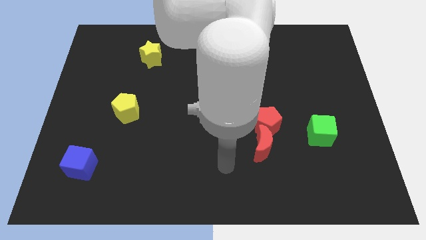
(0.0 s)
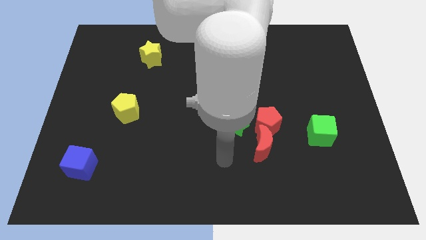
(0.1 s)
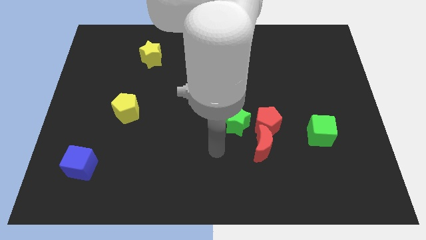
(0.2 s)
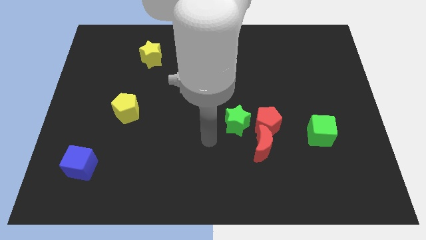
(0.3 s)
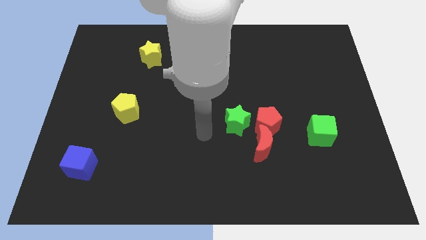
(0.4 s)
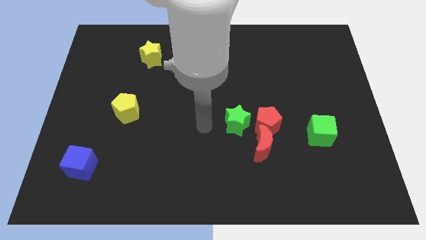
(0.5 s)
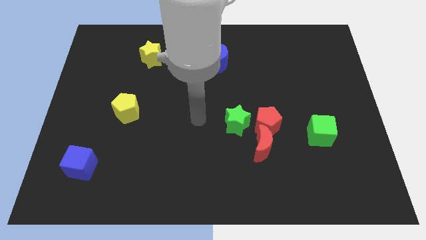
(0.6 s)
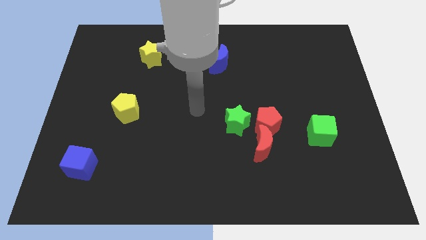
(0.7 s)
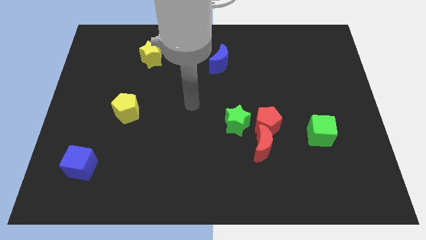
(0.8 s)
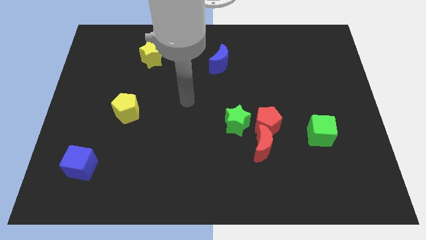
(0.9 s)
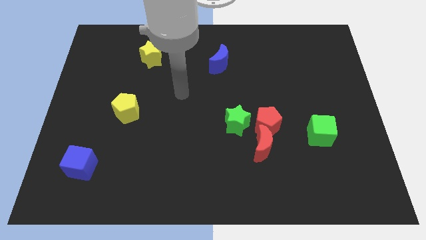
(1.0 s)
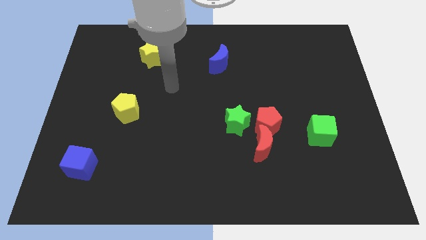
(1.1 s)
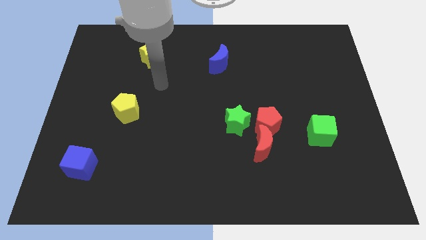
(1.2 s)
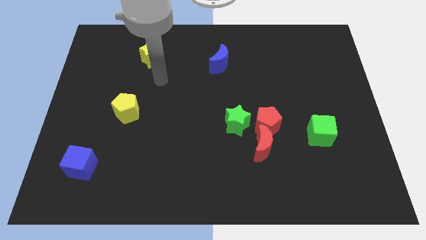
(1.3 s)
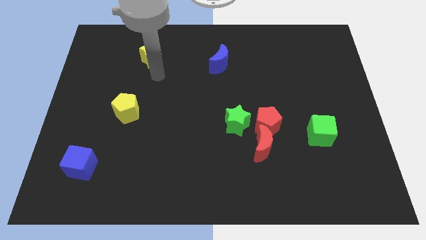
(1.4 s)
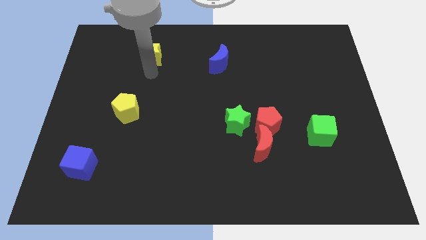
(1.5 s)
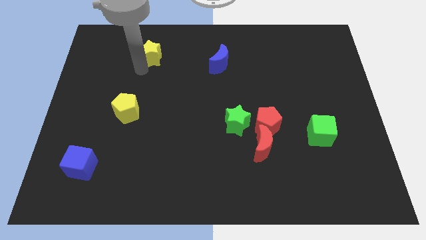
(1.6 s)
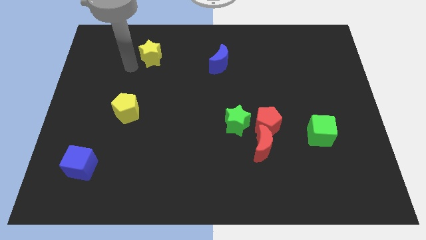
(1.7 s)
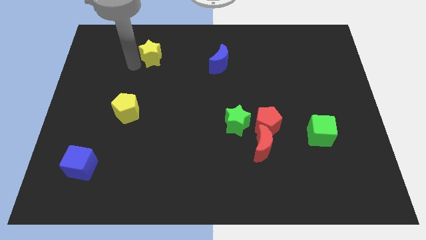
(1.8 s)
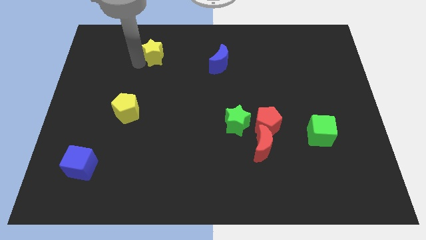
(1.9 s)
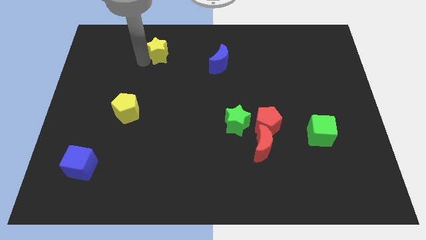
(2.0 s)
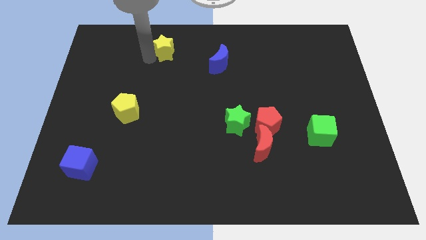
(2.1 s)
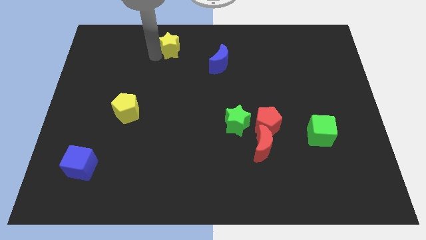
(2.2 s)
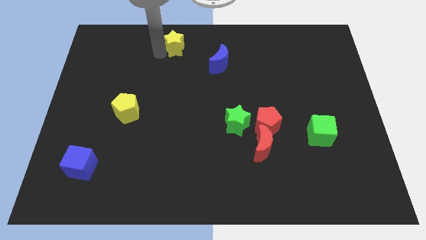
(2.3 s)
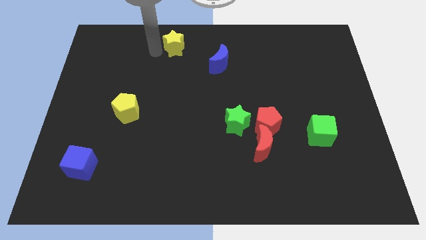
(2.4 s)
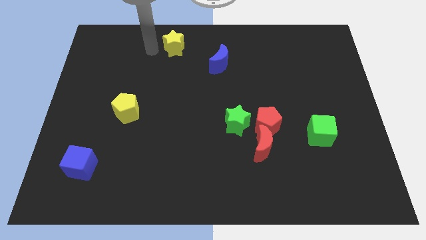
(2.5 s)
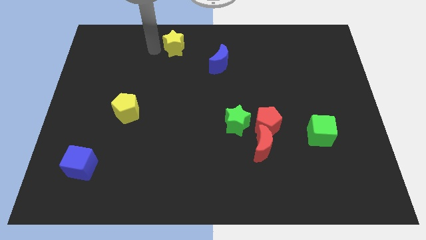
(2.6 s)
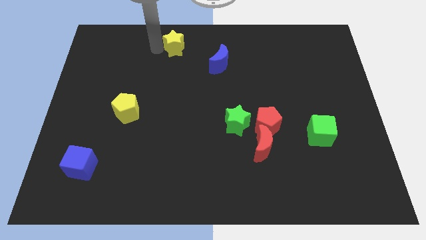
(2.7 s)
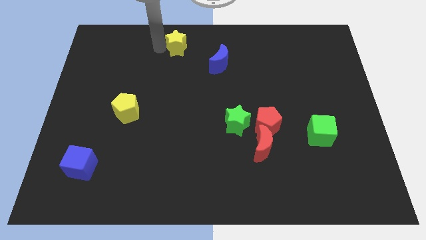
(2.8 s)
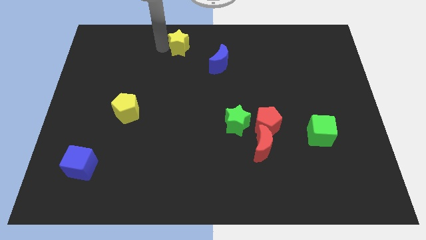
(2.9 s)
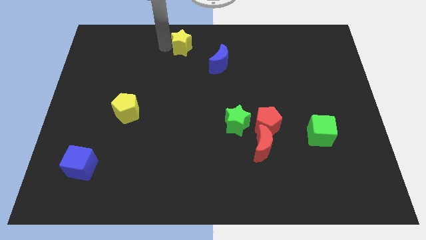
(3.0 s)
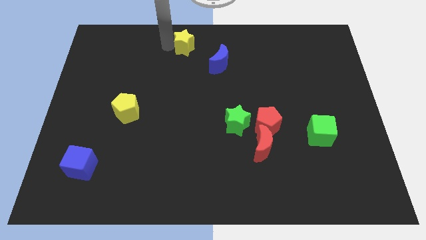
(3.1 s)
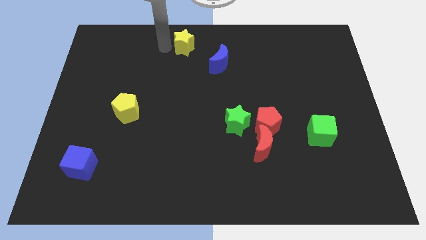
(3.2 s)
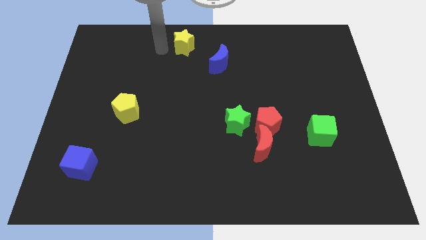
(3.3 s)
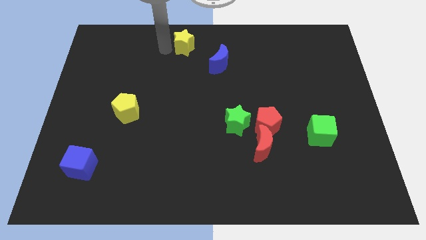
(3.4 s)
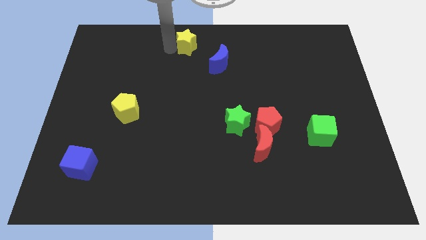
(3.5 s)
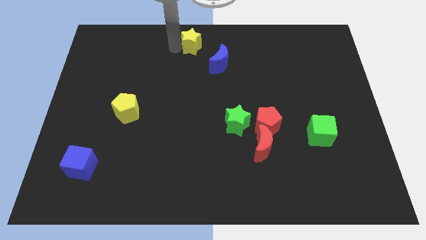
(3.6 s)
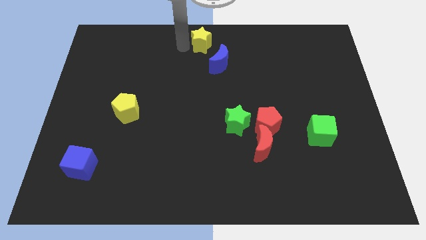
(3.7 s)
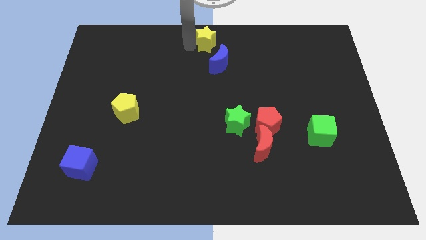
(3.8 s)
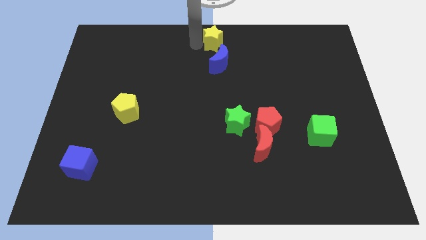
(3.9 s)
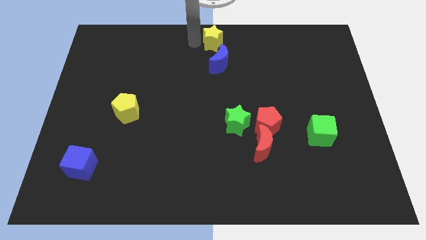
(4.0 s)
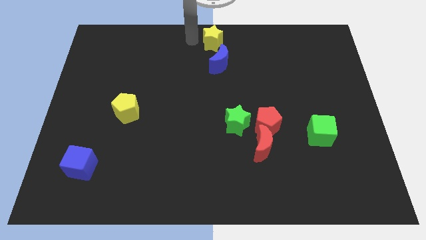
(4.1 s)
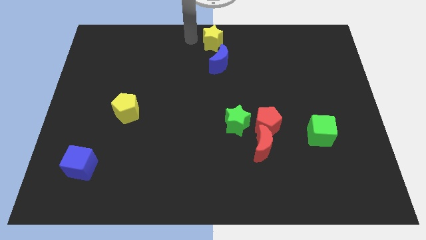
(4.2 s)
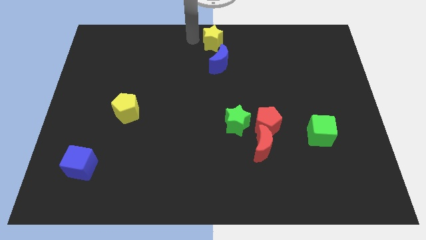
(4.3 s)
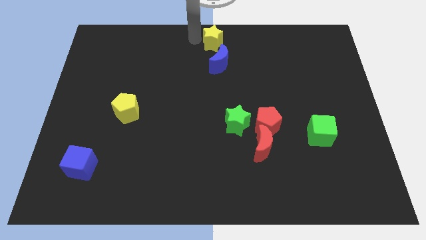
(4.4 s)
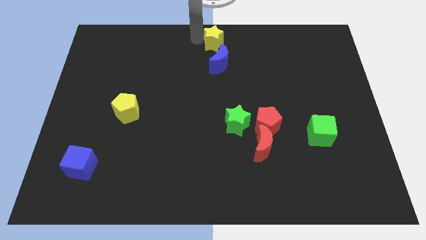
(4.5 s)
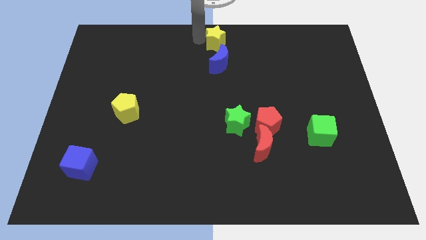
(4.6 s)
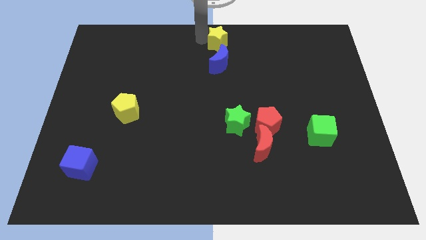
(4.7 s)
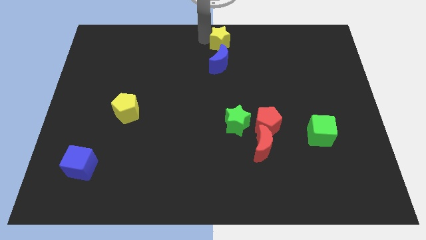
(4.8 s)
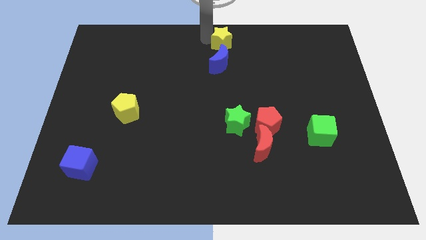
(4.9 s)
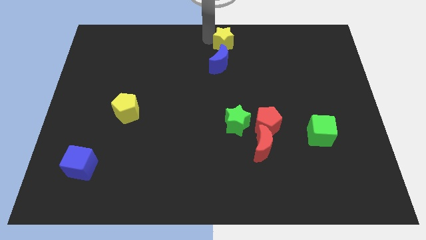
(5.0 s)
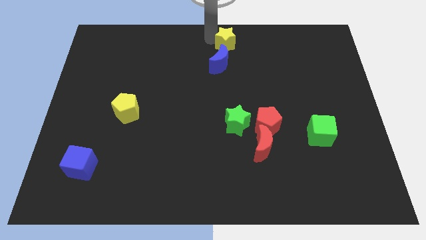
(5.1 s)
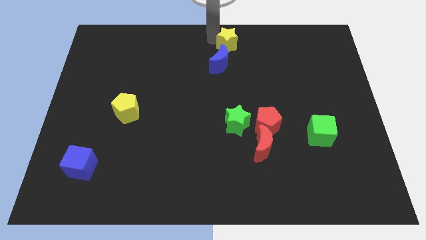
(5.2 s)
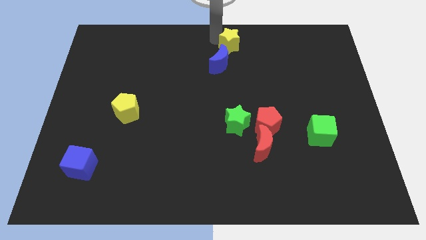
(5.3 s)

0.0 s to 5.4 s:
push the yellow star right

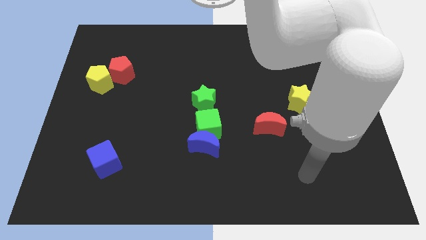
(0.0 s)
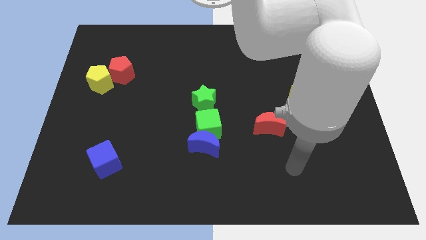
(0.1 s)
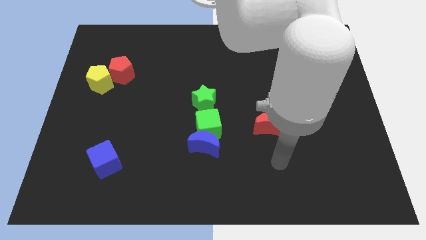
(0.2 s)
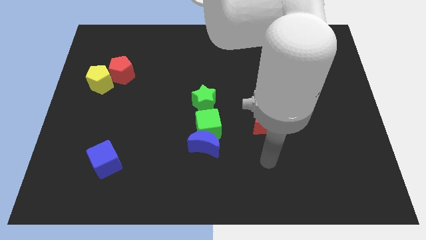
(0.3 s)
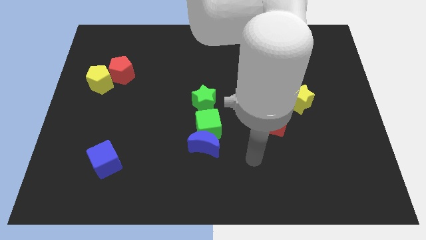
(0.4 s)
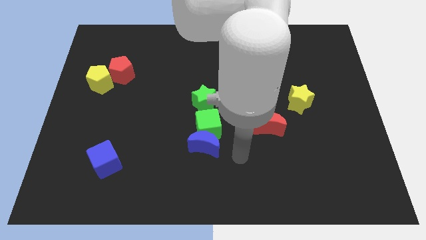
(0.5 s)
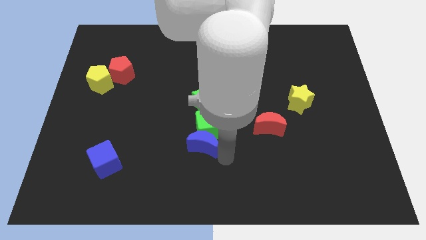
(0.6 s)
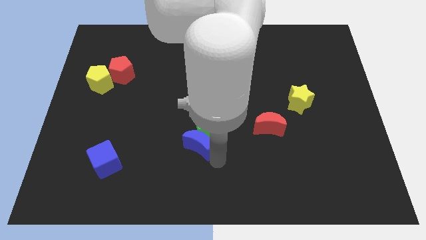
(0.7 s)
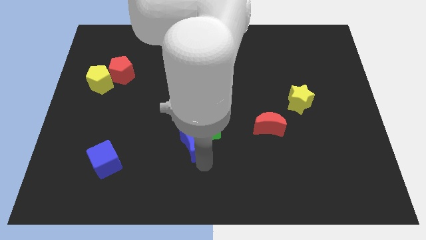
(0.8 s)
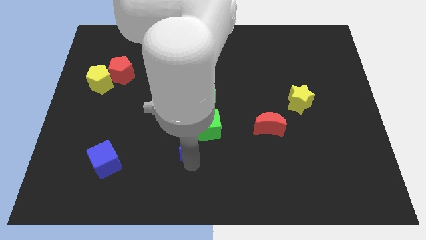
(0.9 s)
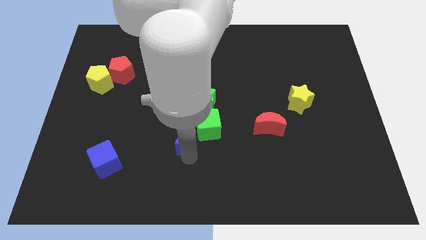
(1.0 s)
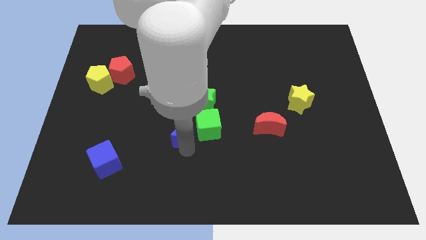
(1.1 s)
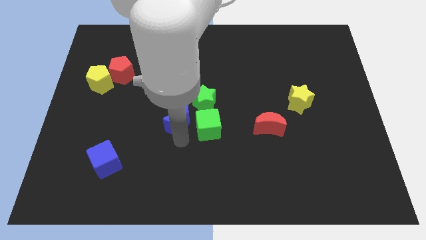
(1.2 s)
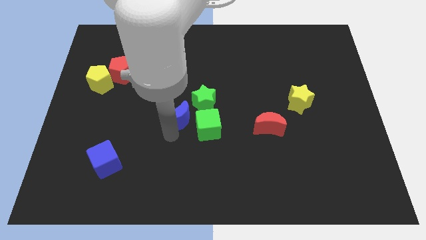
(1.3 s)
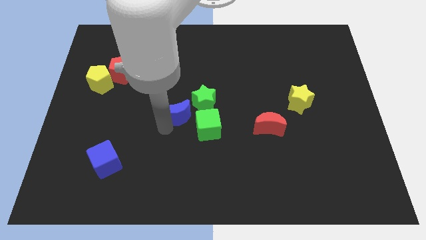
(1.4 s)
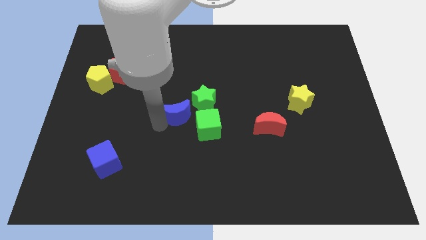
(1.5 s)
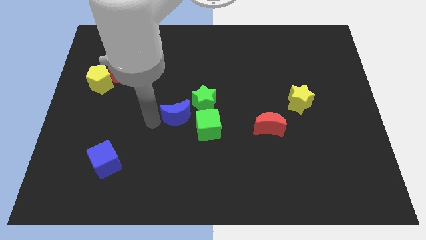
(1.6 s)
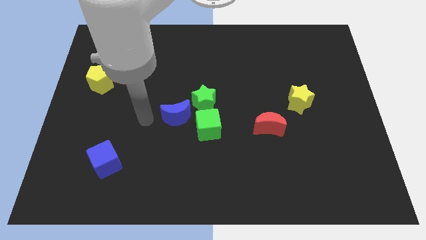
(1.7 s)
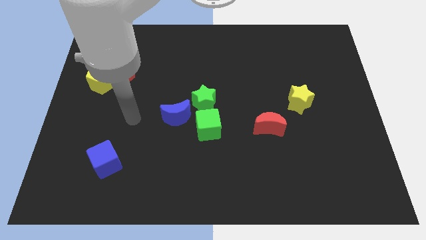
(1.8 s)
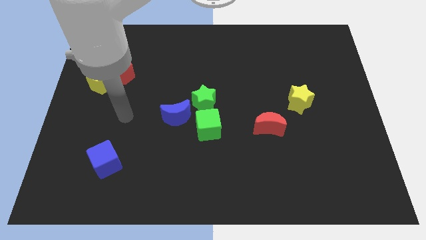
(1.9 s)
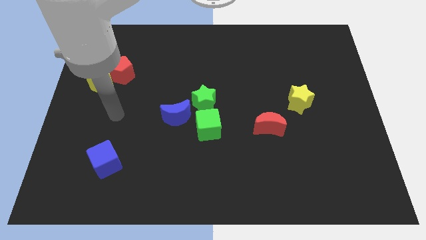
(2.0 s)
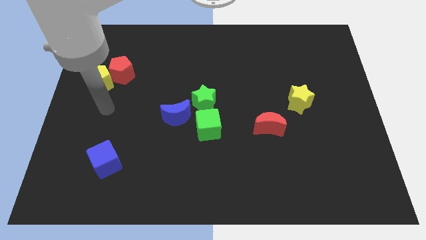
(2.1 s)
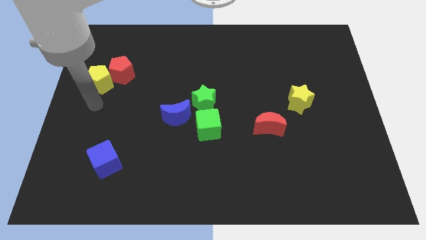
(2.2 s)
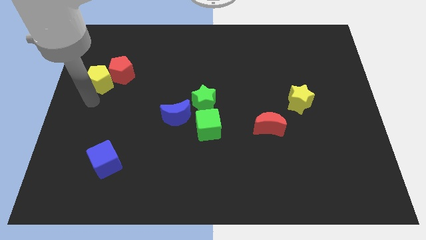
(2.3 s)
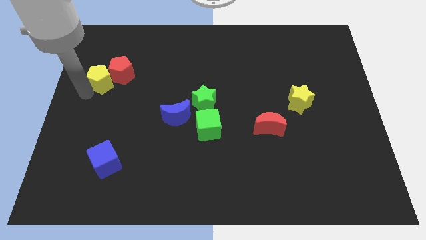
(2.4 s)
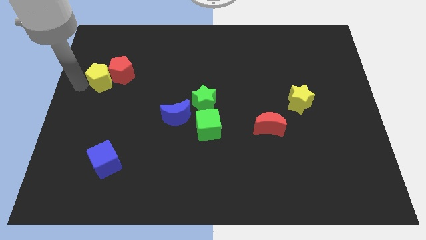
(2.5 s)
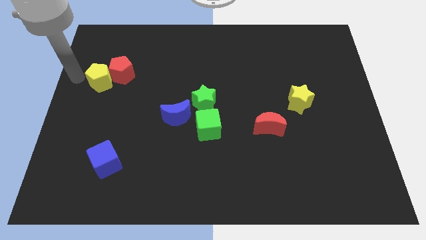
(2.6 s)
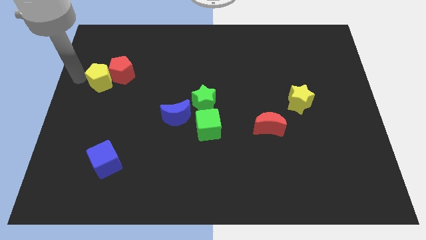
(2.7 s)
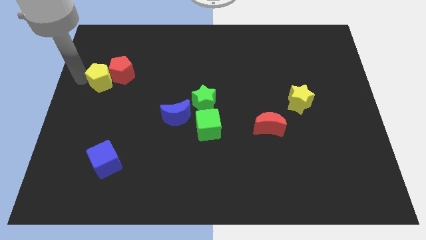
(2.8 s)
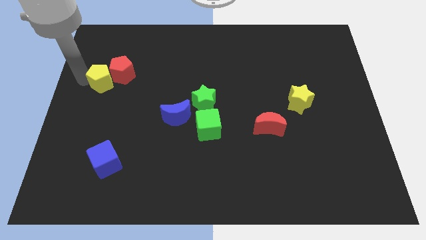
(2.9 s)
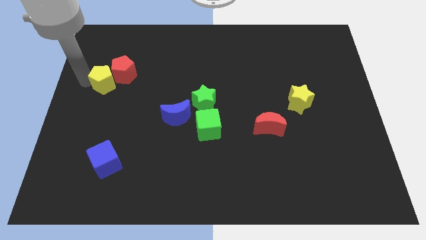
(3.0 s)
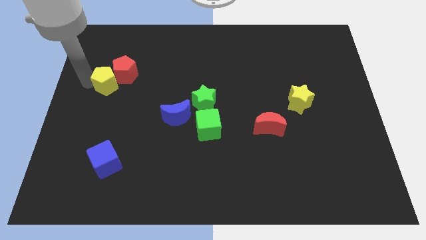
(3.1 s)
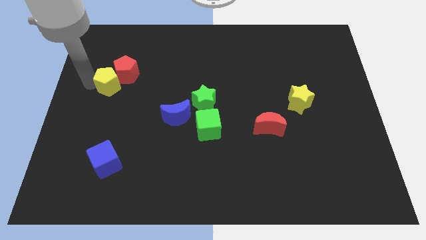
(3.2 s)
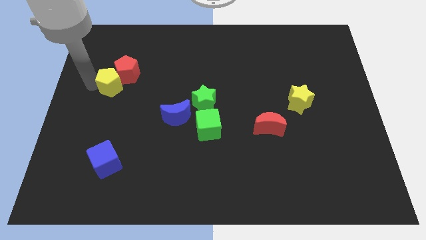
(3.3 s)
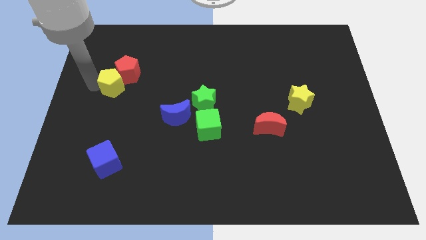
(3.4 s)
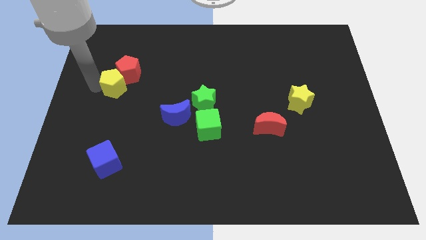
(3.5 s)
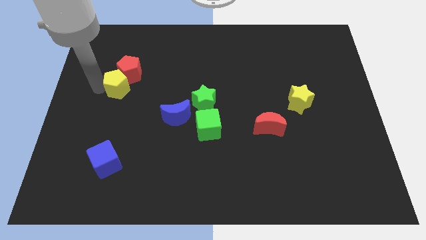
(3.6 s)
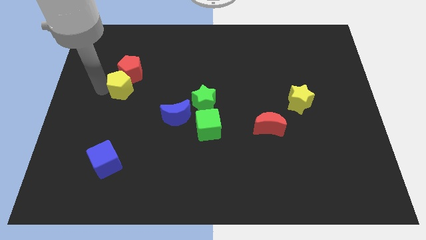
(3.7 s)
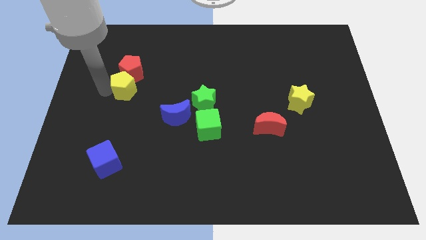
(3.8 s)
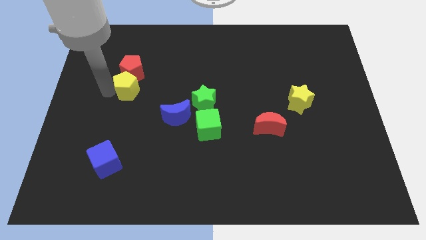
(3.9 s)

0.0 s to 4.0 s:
push the yellow pentagon slightly right
